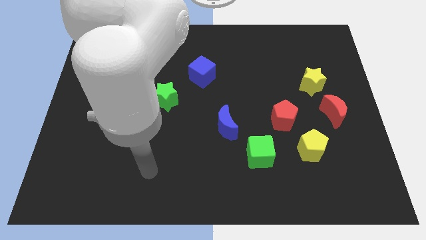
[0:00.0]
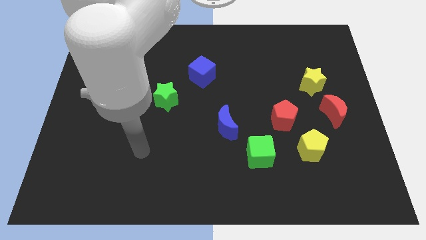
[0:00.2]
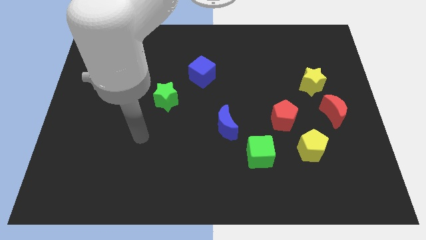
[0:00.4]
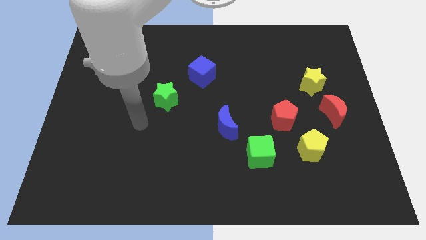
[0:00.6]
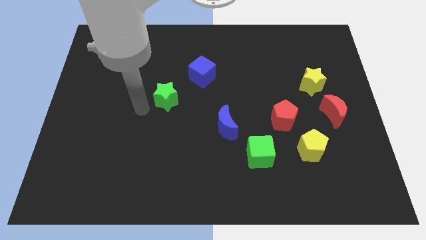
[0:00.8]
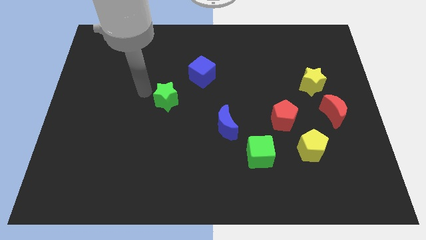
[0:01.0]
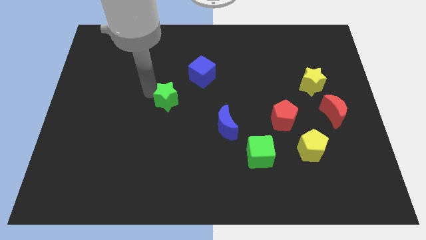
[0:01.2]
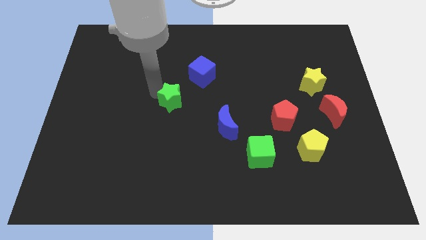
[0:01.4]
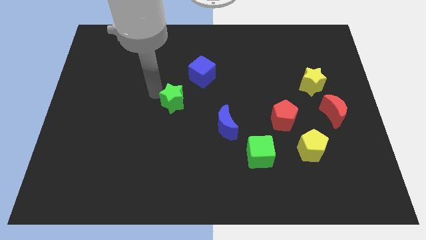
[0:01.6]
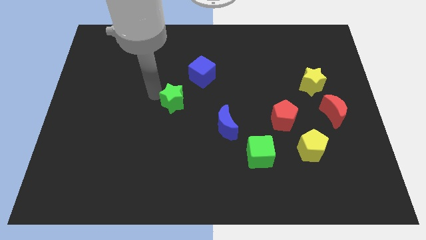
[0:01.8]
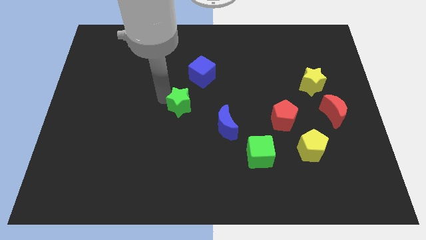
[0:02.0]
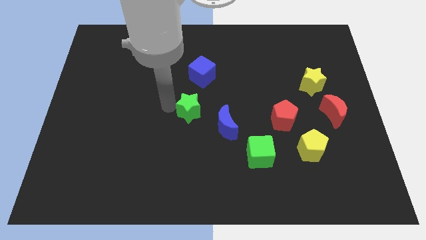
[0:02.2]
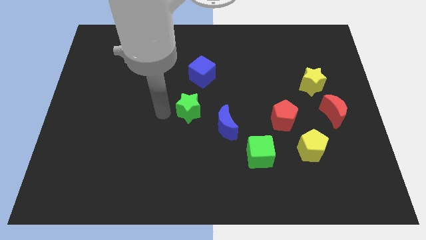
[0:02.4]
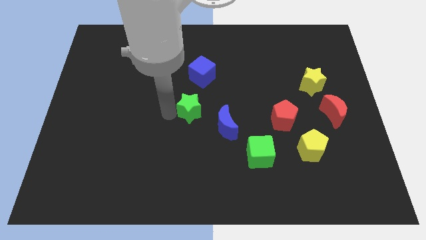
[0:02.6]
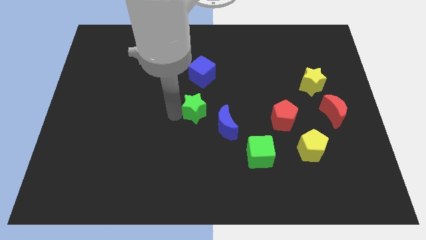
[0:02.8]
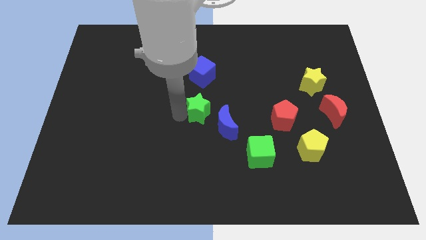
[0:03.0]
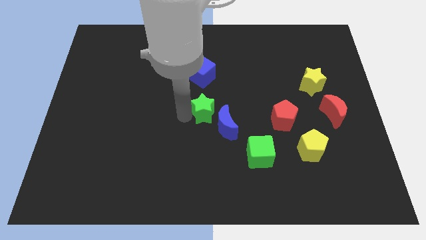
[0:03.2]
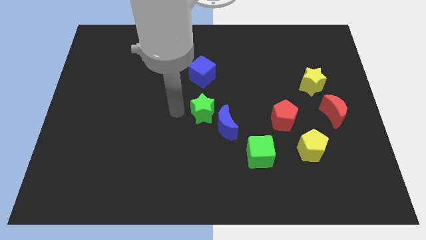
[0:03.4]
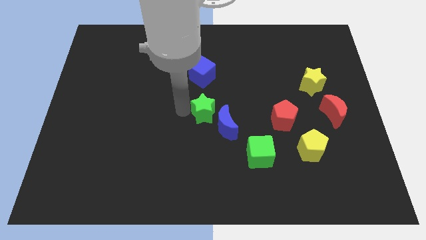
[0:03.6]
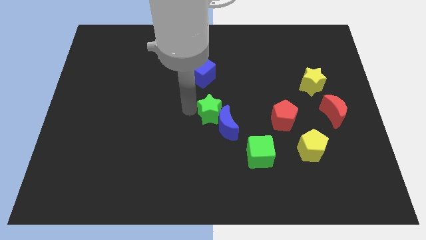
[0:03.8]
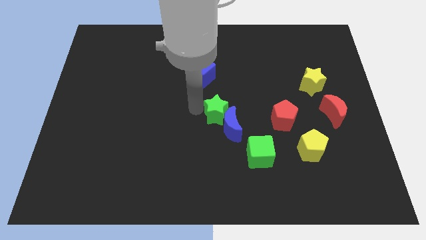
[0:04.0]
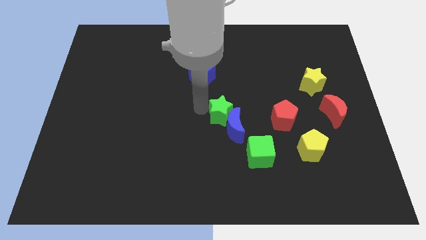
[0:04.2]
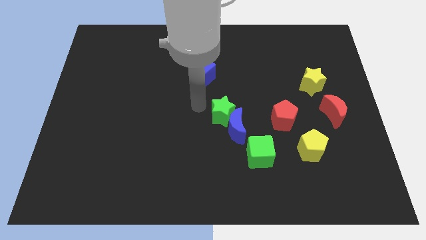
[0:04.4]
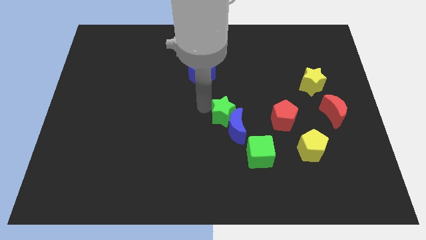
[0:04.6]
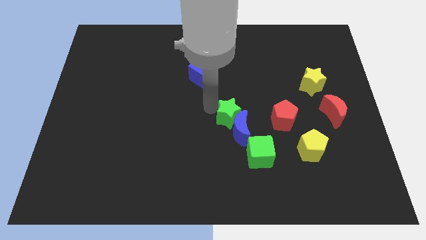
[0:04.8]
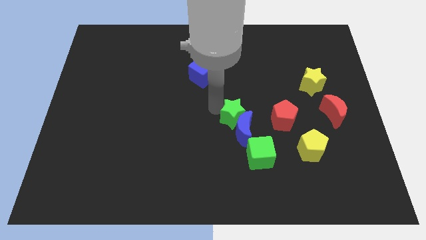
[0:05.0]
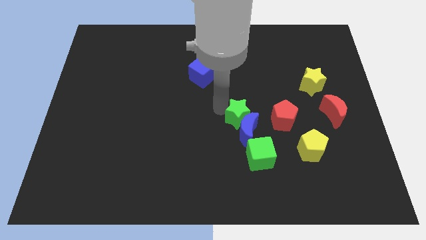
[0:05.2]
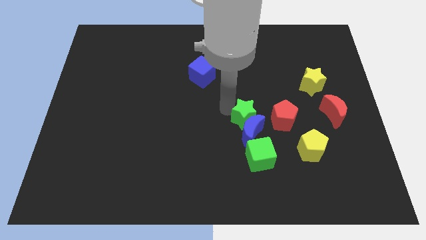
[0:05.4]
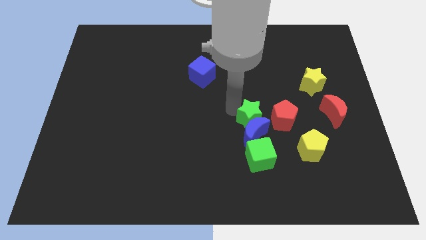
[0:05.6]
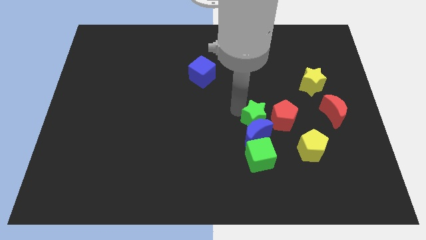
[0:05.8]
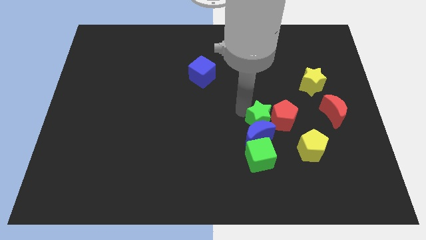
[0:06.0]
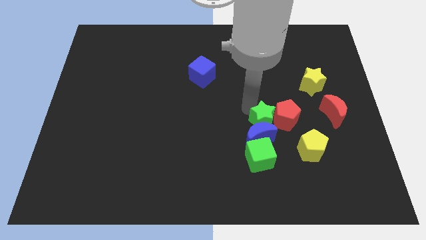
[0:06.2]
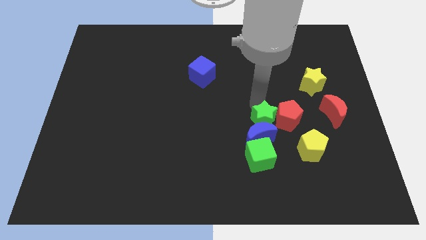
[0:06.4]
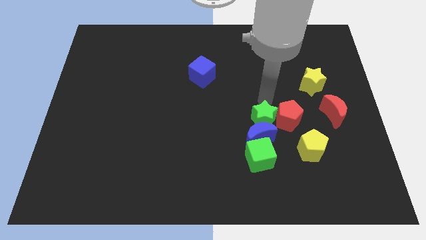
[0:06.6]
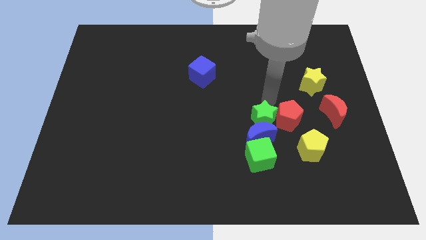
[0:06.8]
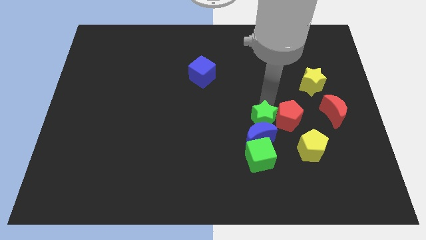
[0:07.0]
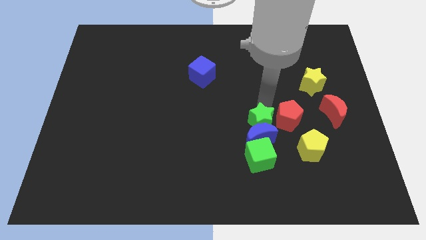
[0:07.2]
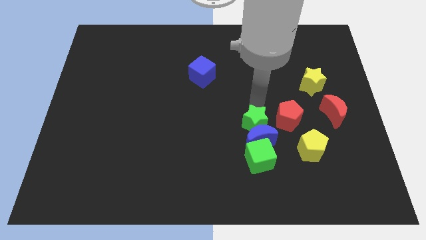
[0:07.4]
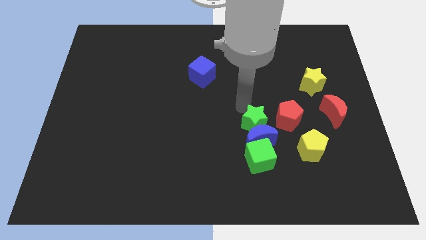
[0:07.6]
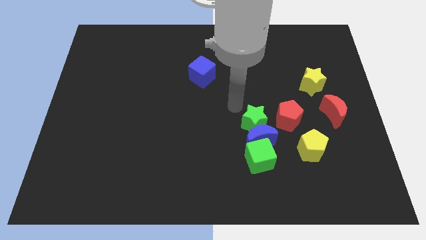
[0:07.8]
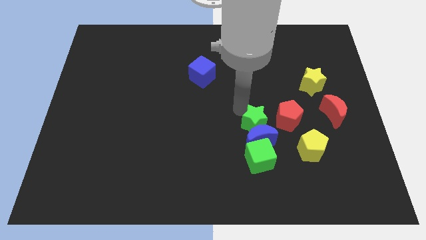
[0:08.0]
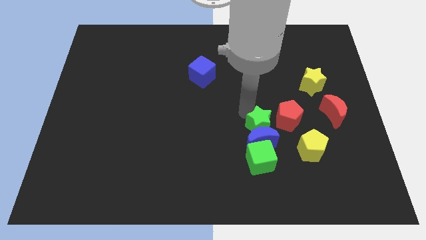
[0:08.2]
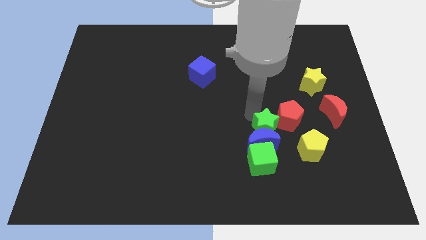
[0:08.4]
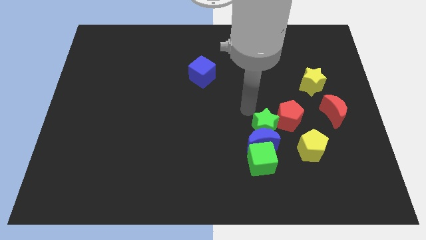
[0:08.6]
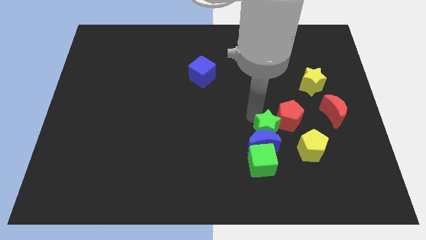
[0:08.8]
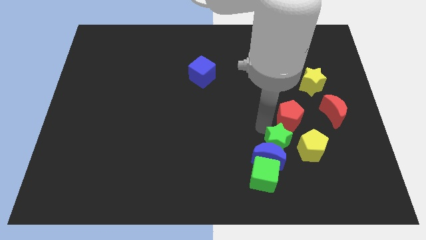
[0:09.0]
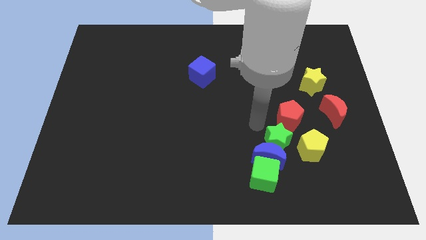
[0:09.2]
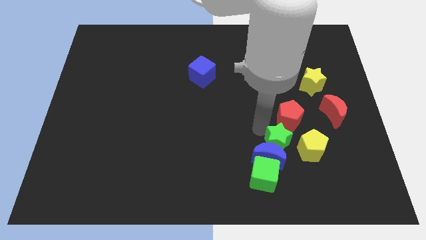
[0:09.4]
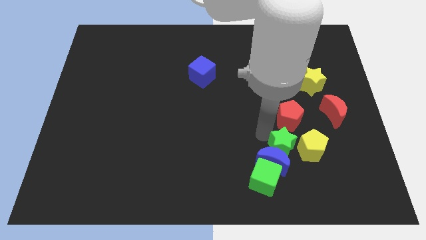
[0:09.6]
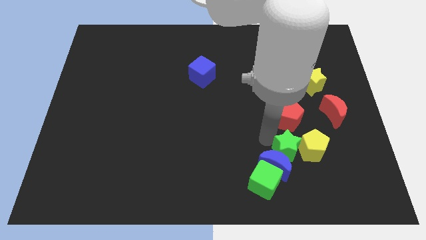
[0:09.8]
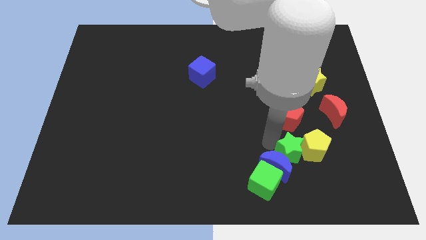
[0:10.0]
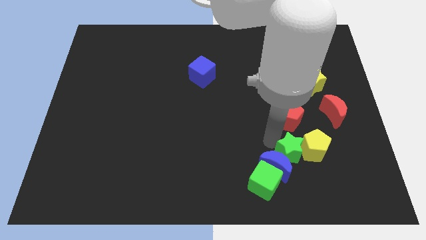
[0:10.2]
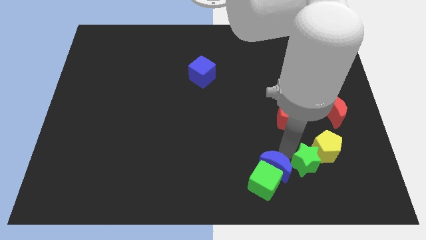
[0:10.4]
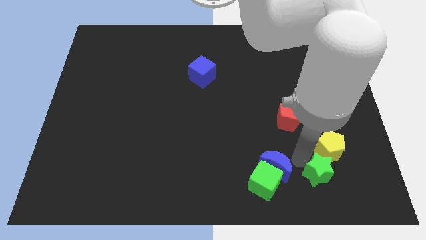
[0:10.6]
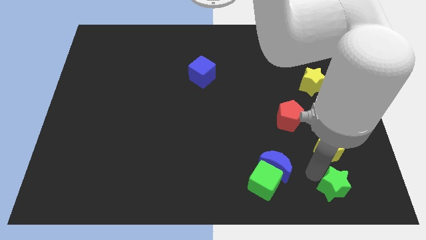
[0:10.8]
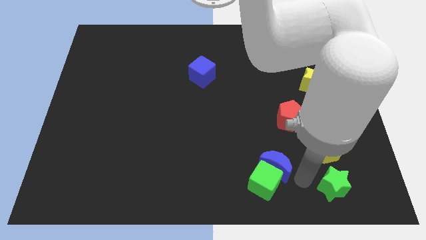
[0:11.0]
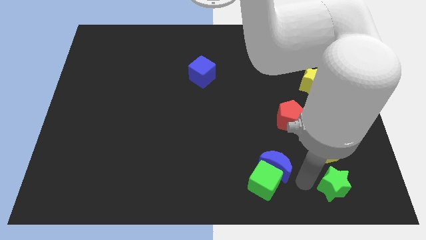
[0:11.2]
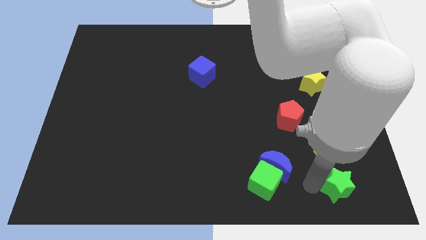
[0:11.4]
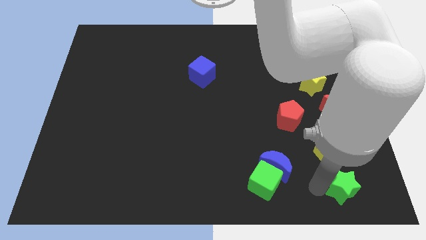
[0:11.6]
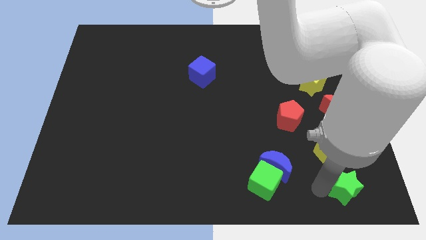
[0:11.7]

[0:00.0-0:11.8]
put the green star to the lower right corner

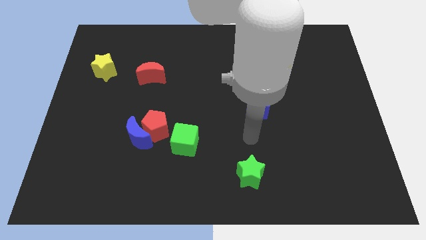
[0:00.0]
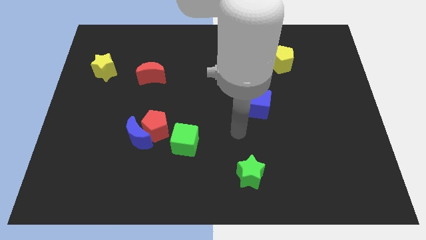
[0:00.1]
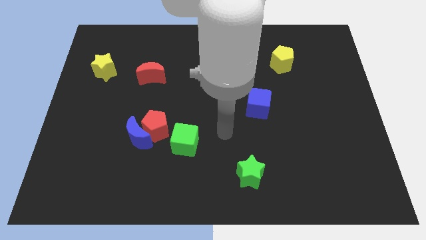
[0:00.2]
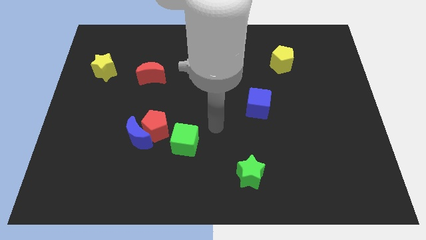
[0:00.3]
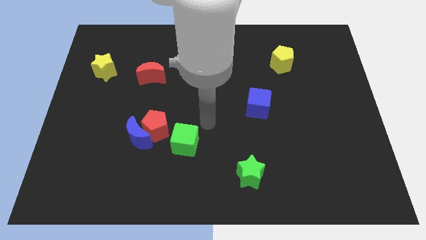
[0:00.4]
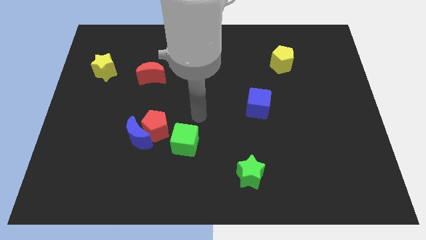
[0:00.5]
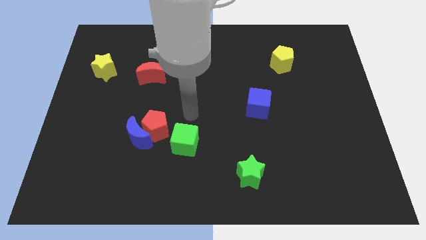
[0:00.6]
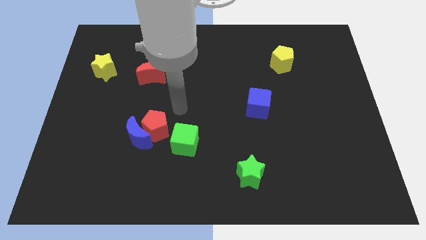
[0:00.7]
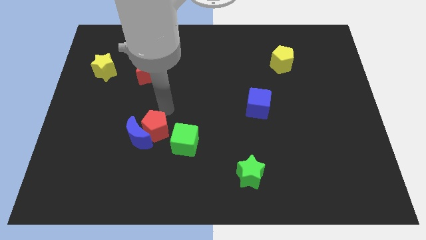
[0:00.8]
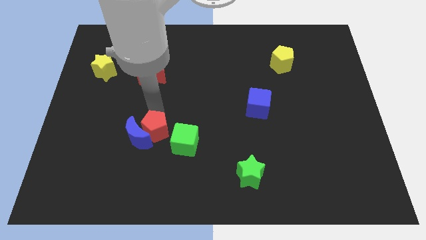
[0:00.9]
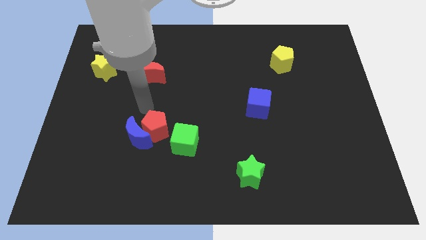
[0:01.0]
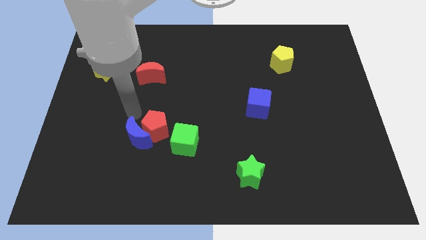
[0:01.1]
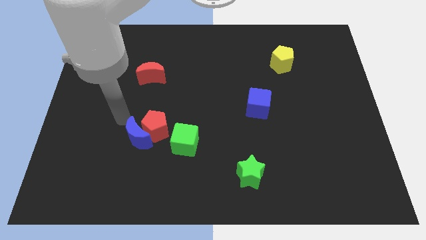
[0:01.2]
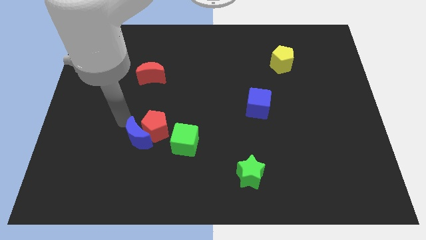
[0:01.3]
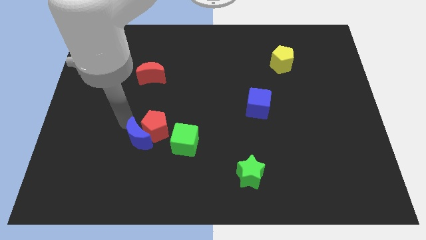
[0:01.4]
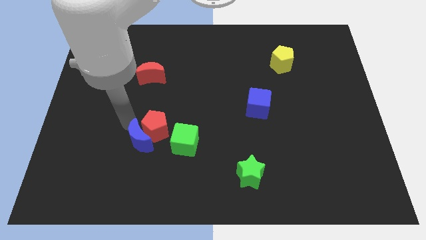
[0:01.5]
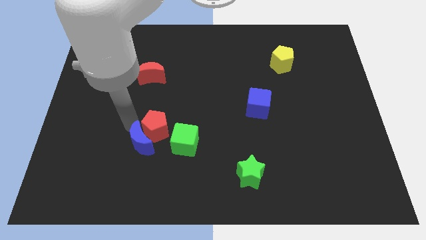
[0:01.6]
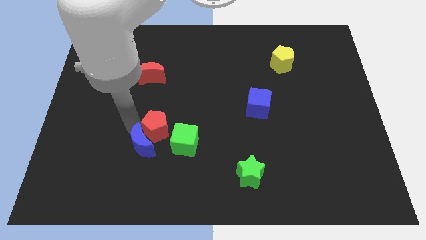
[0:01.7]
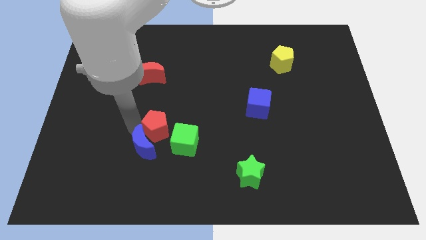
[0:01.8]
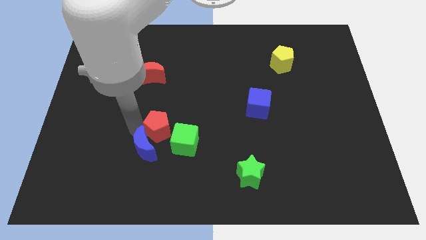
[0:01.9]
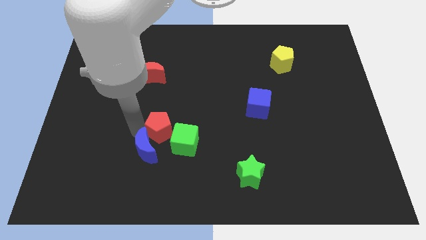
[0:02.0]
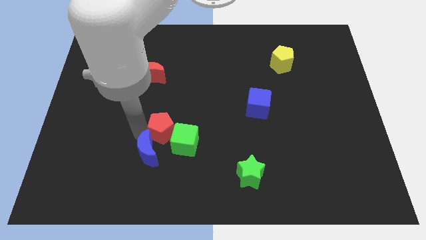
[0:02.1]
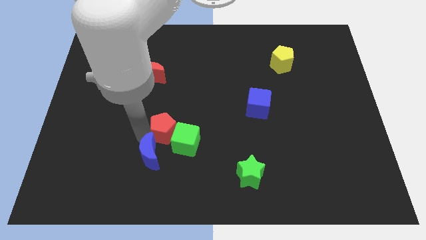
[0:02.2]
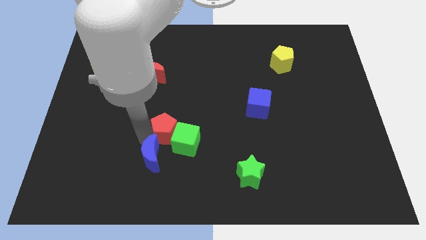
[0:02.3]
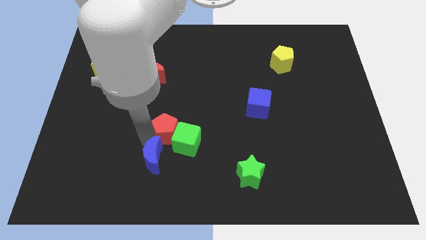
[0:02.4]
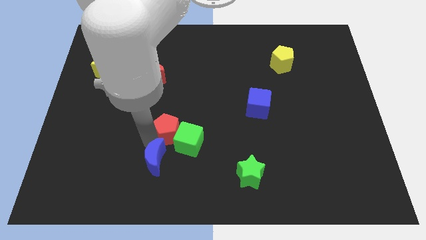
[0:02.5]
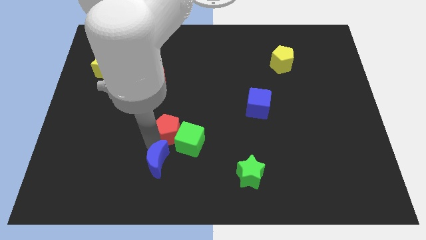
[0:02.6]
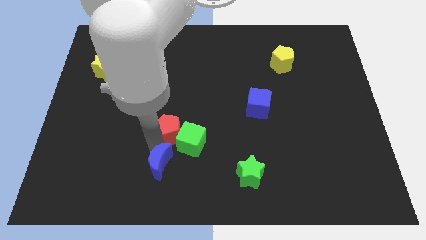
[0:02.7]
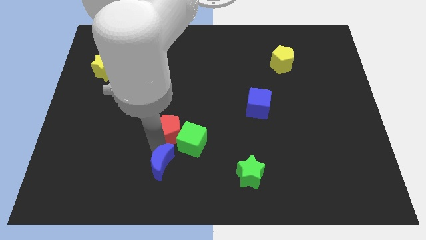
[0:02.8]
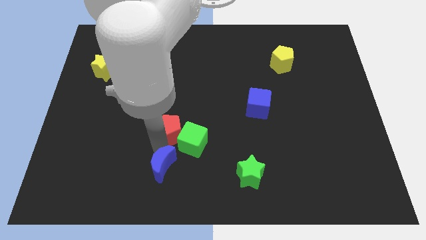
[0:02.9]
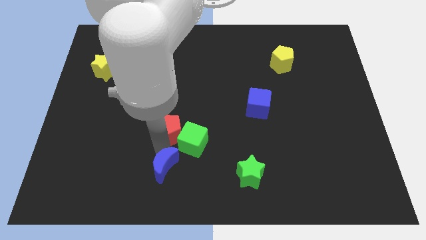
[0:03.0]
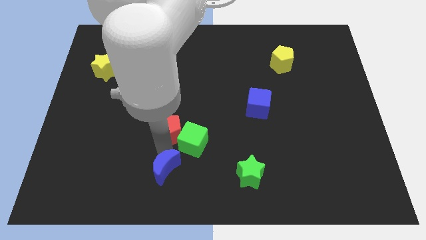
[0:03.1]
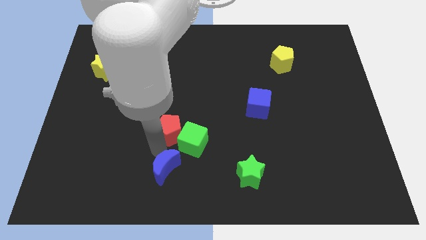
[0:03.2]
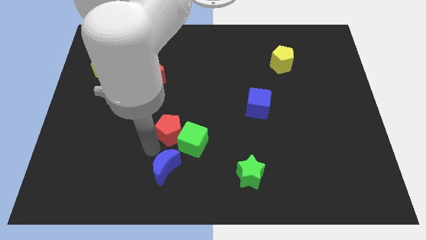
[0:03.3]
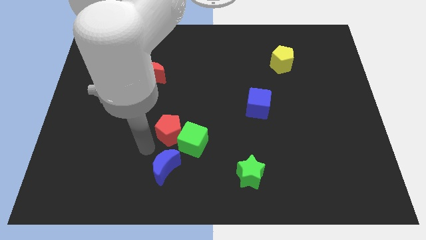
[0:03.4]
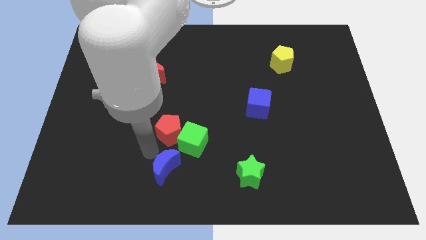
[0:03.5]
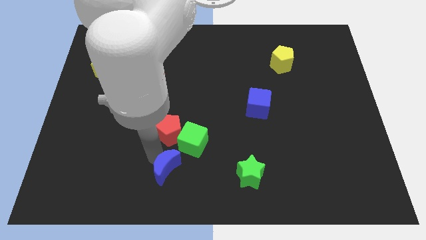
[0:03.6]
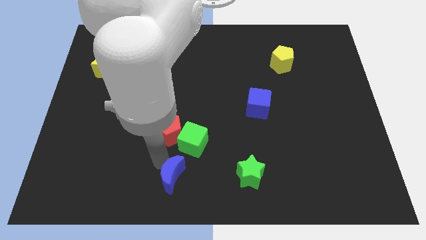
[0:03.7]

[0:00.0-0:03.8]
move the blue moon to the bottom side
